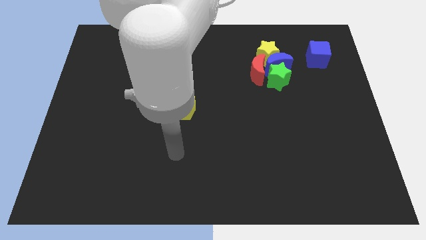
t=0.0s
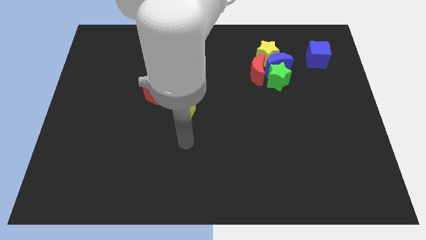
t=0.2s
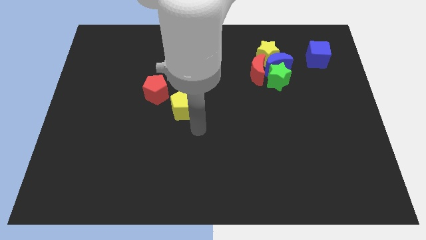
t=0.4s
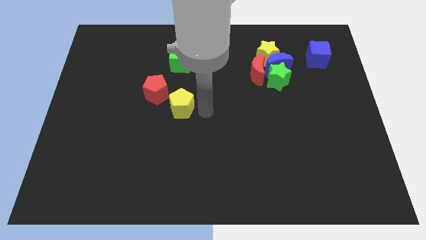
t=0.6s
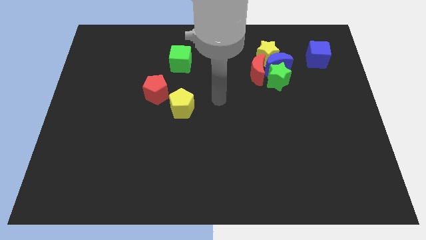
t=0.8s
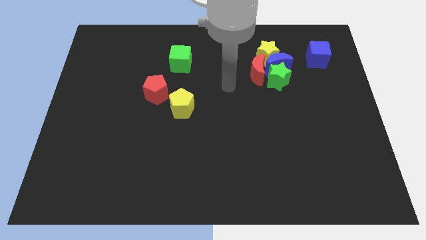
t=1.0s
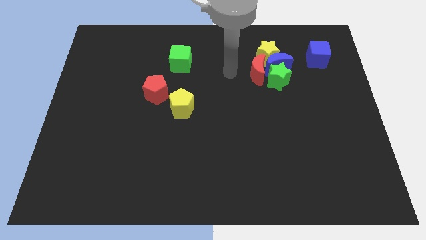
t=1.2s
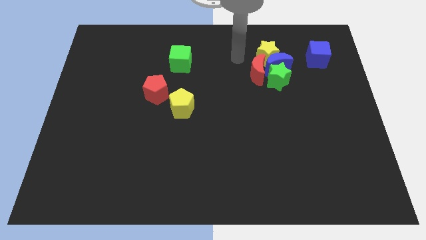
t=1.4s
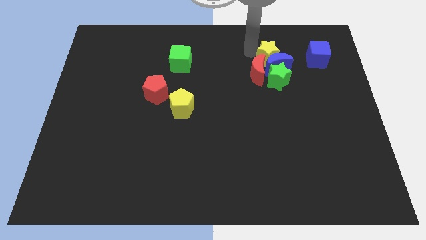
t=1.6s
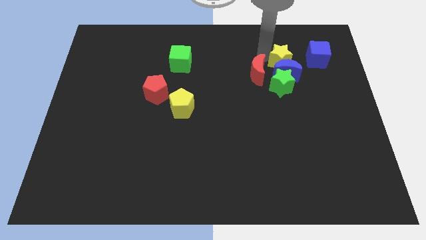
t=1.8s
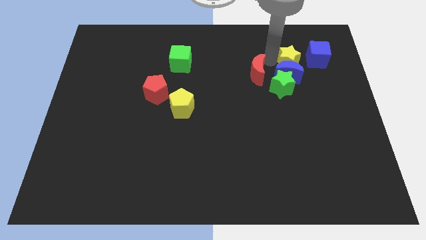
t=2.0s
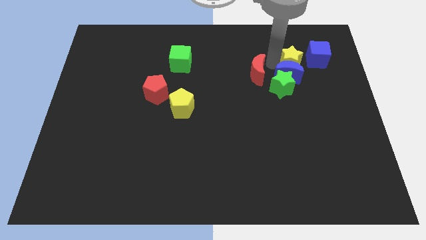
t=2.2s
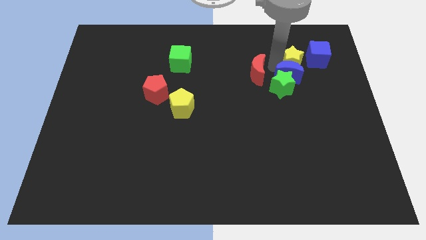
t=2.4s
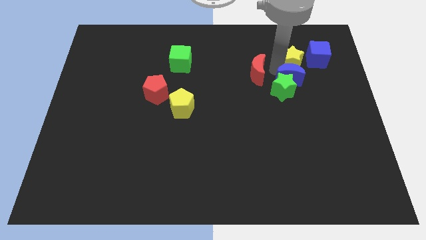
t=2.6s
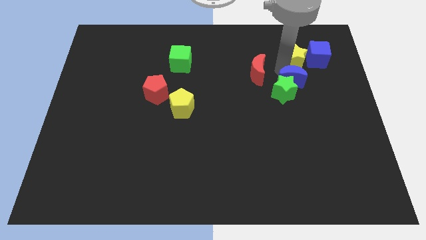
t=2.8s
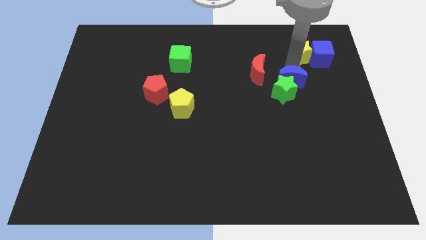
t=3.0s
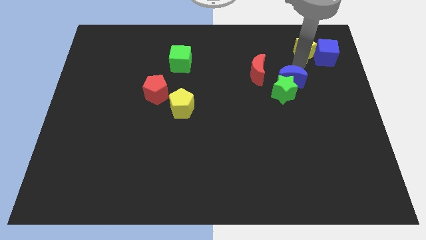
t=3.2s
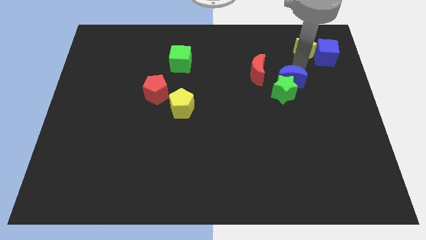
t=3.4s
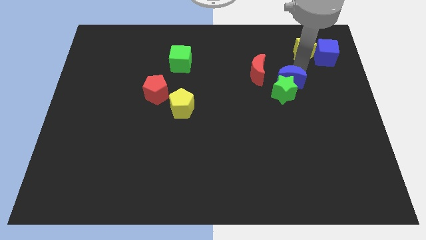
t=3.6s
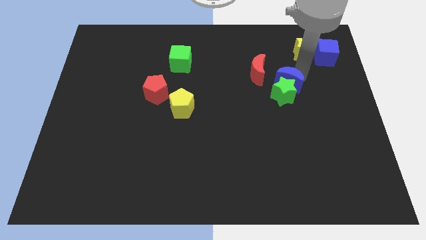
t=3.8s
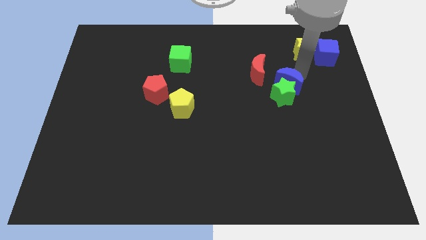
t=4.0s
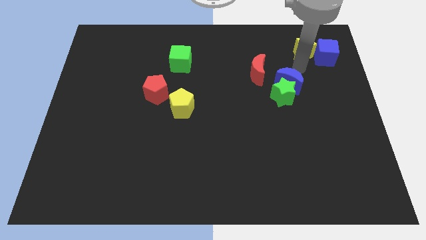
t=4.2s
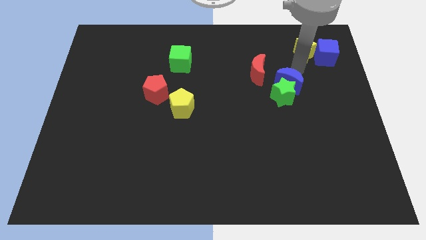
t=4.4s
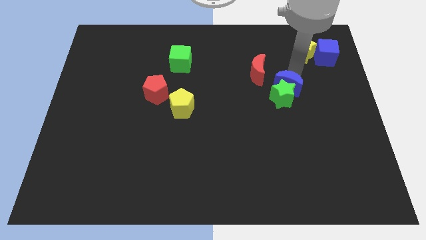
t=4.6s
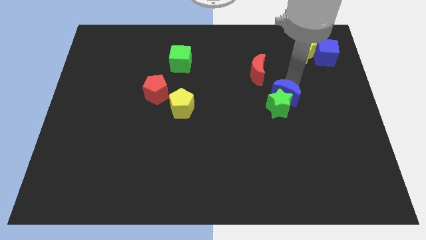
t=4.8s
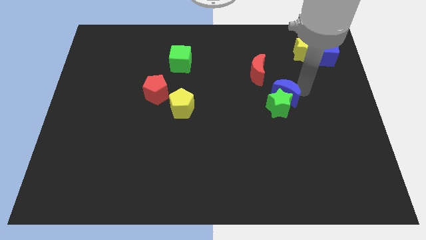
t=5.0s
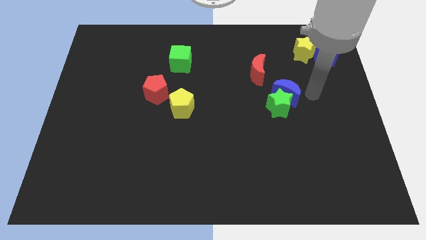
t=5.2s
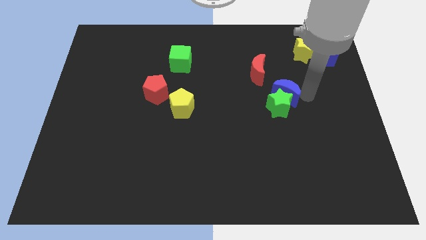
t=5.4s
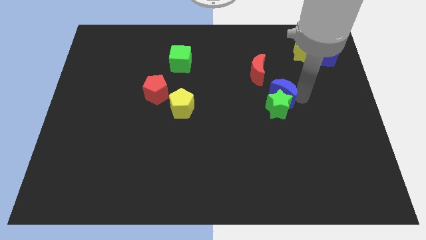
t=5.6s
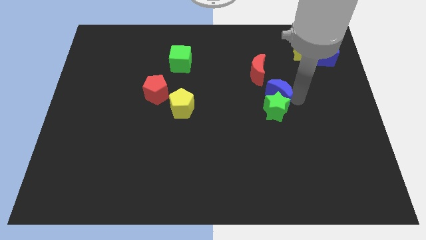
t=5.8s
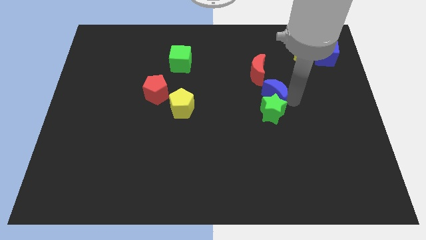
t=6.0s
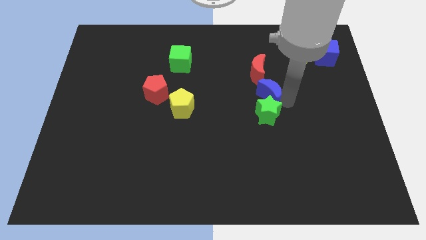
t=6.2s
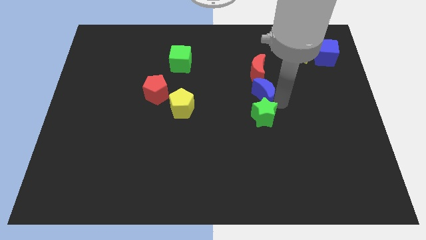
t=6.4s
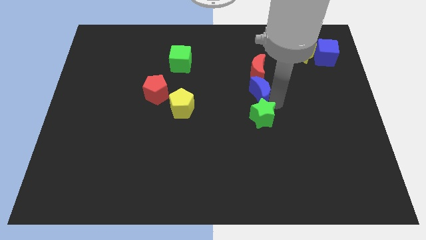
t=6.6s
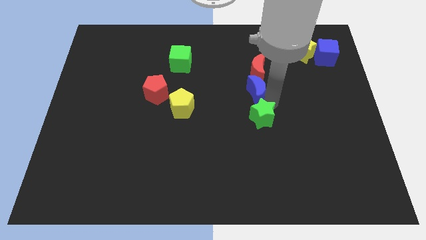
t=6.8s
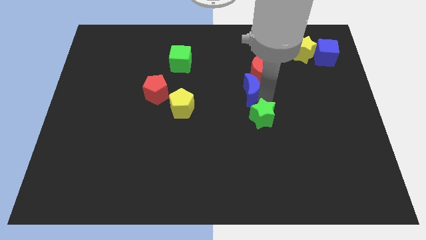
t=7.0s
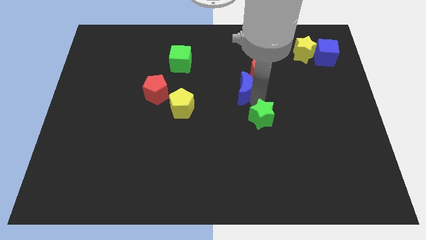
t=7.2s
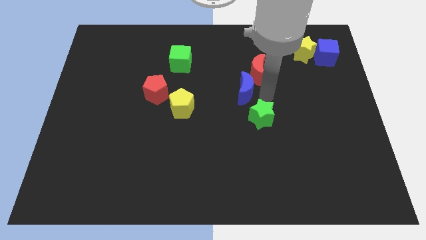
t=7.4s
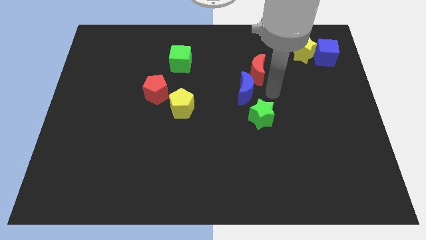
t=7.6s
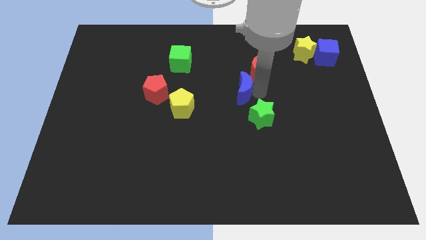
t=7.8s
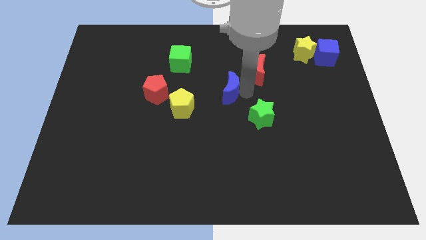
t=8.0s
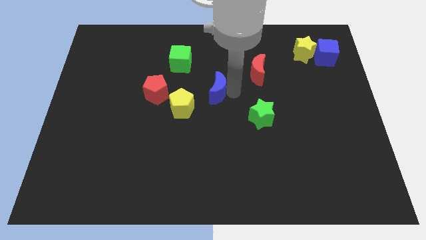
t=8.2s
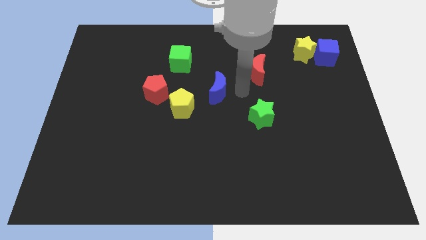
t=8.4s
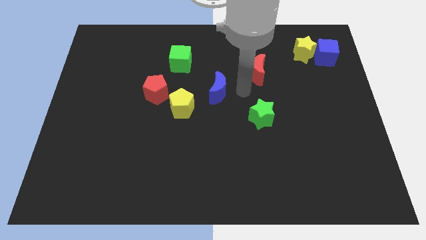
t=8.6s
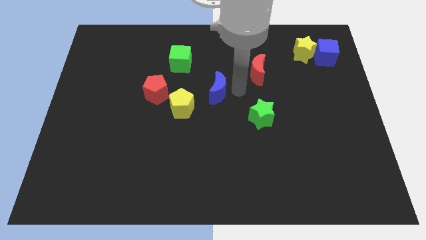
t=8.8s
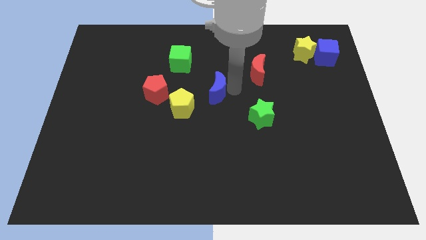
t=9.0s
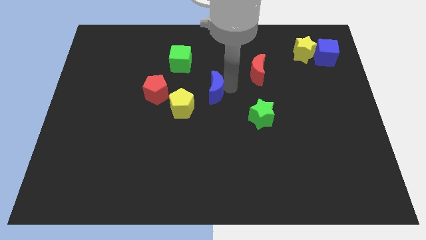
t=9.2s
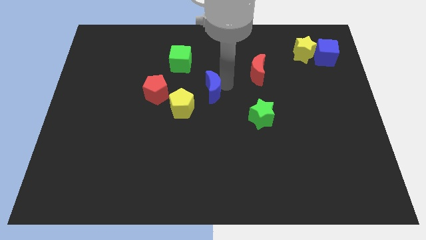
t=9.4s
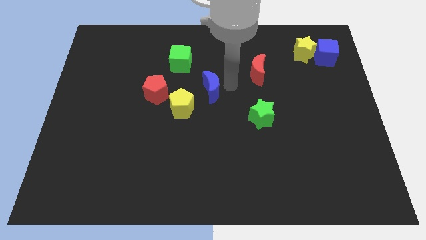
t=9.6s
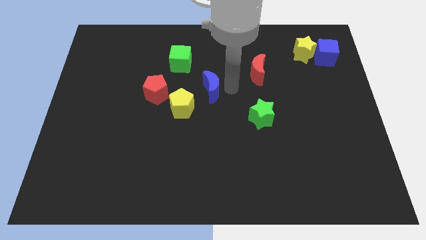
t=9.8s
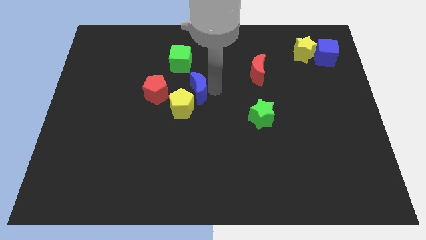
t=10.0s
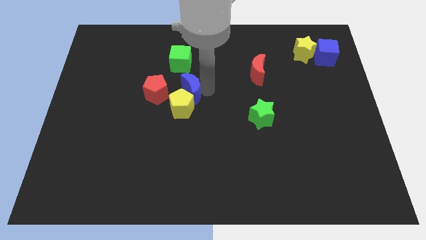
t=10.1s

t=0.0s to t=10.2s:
push the blue moon below the green cube

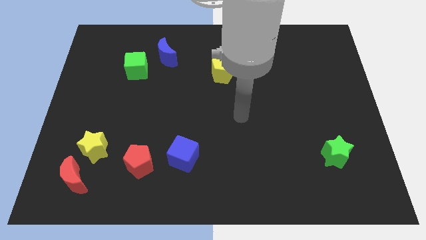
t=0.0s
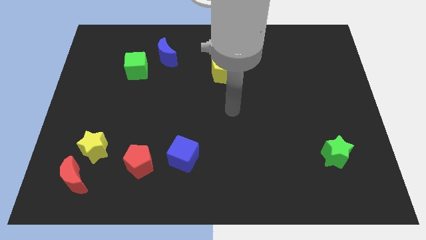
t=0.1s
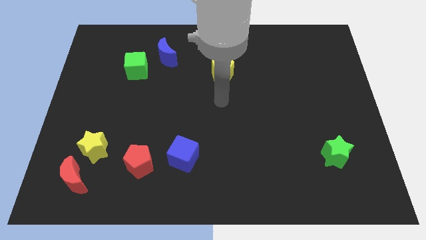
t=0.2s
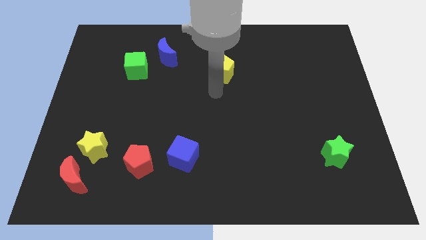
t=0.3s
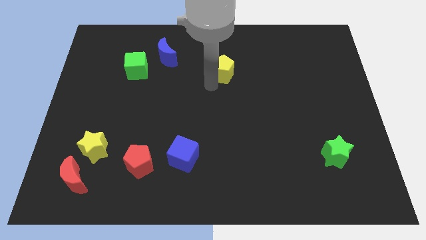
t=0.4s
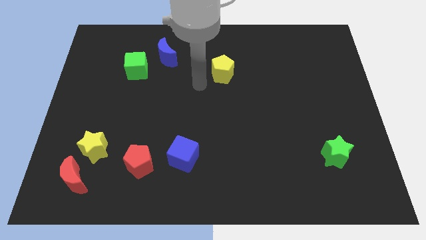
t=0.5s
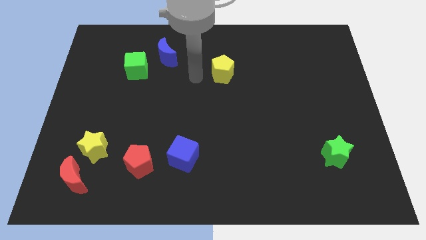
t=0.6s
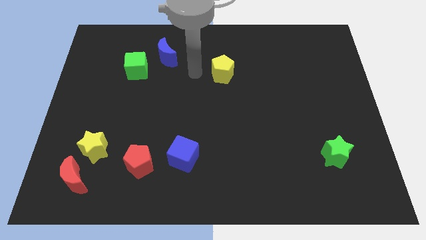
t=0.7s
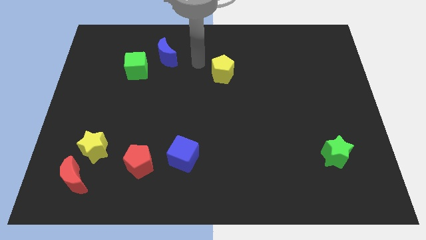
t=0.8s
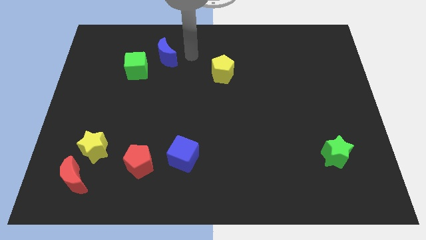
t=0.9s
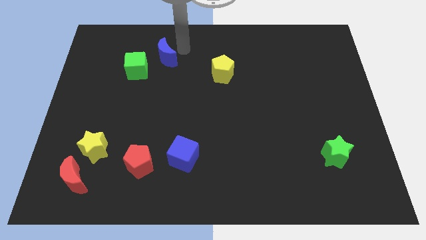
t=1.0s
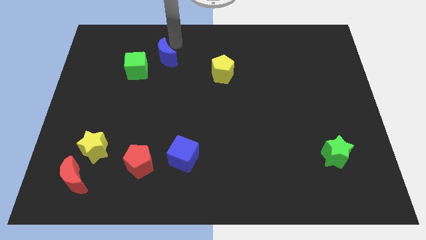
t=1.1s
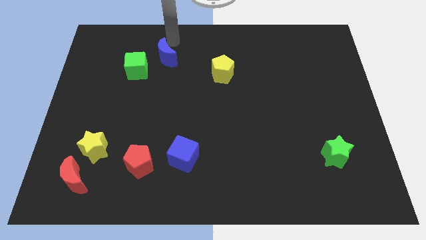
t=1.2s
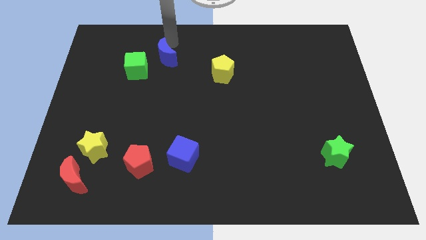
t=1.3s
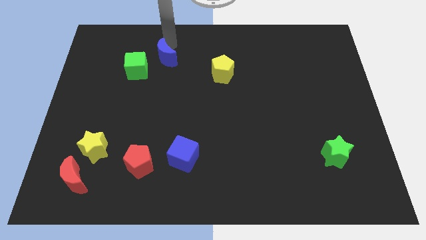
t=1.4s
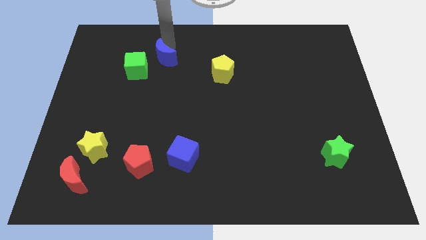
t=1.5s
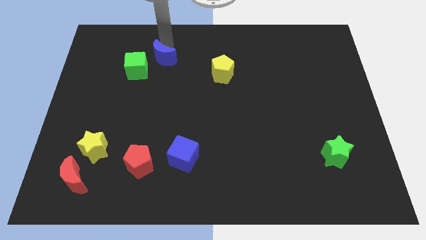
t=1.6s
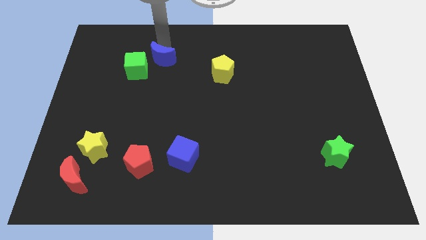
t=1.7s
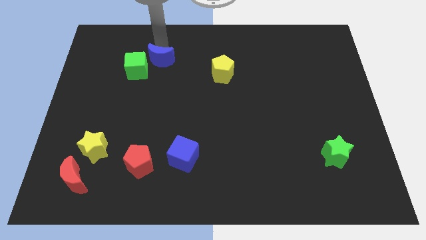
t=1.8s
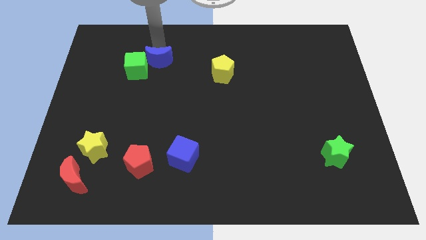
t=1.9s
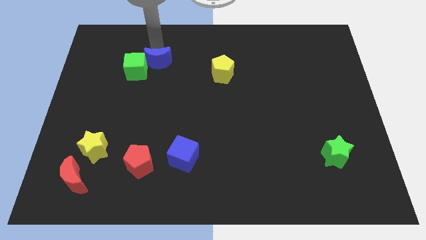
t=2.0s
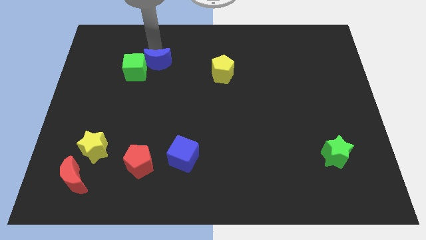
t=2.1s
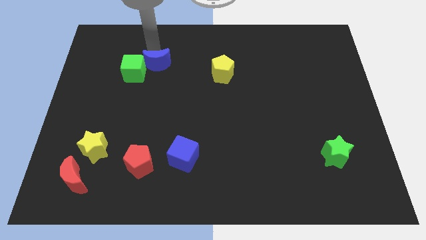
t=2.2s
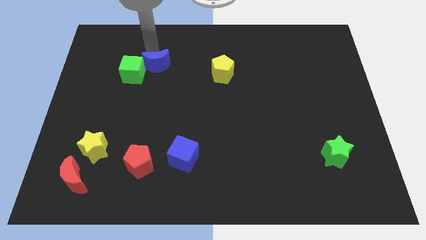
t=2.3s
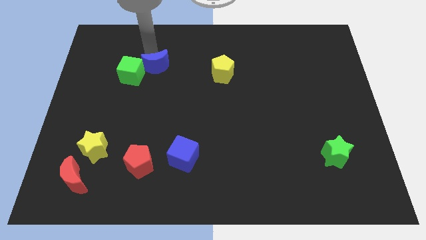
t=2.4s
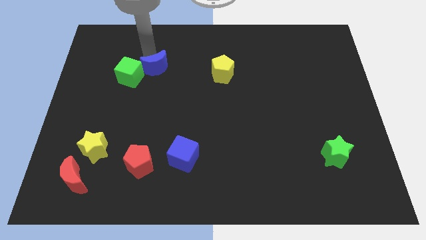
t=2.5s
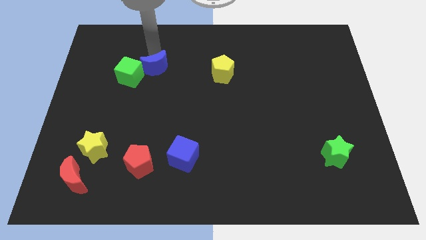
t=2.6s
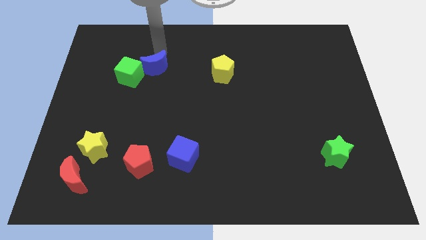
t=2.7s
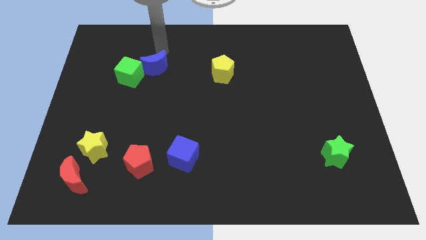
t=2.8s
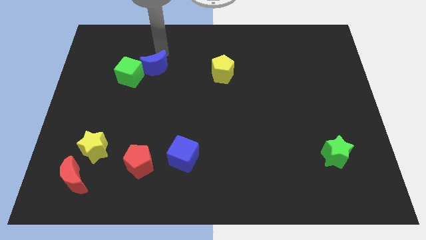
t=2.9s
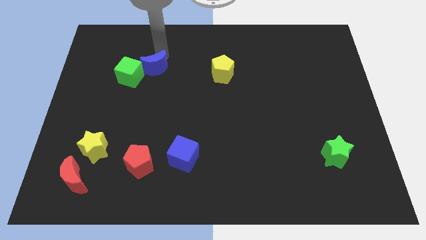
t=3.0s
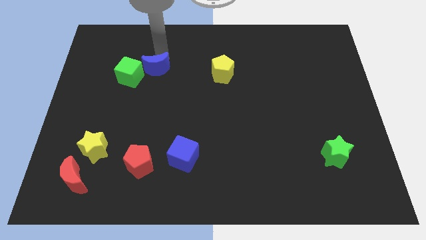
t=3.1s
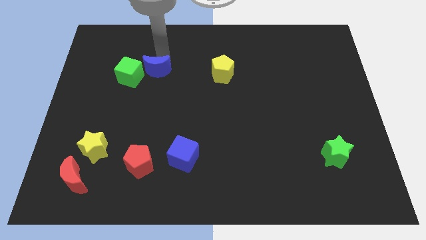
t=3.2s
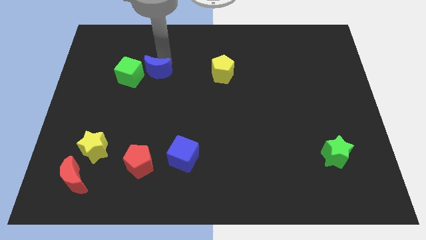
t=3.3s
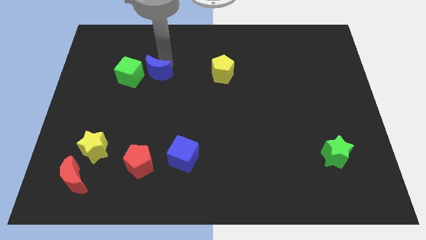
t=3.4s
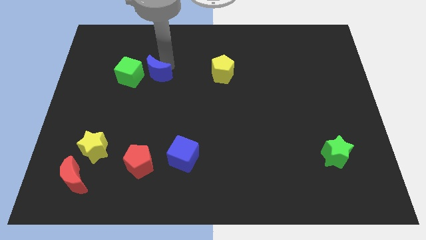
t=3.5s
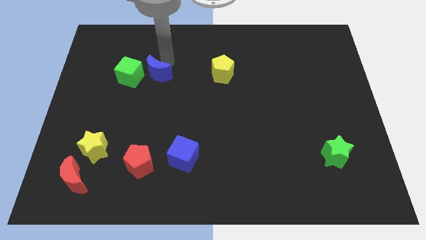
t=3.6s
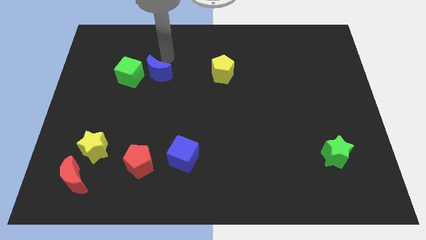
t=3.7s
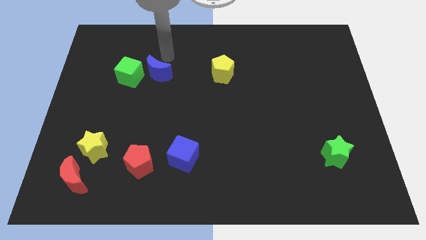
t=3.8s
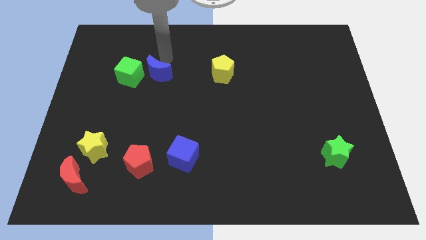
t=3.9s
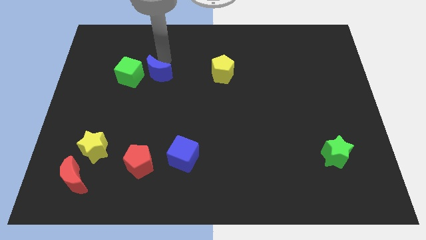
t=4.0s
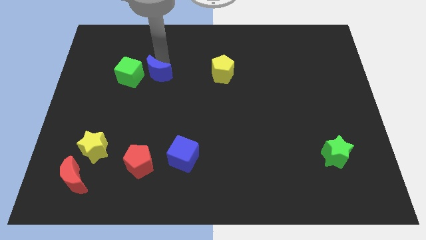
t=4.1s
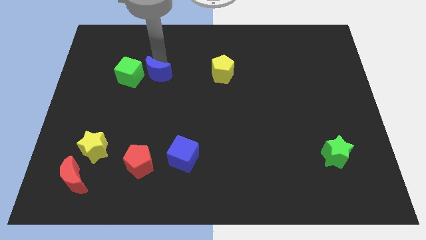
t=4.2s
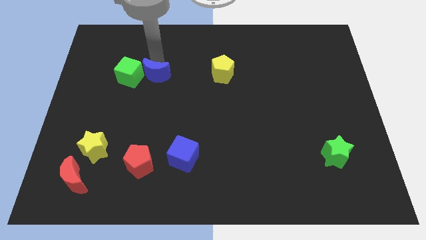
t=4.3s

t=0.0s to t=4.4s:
push the blue moon to the bottom right side of the green cube
